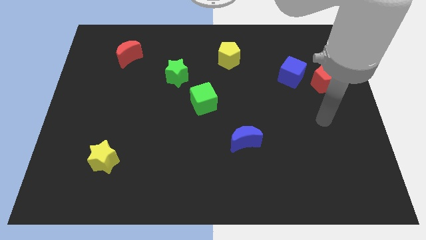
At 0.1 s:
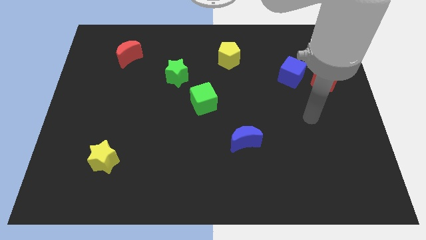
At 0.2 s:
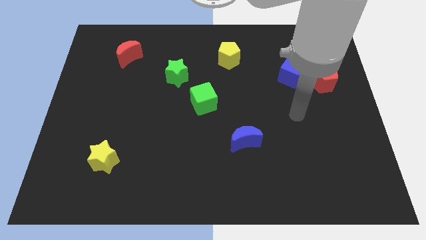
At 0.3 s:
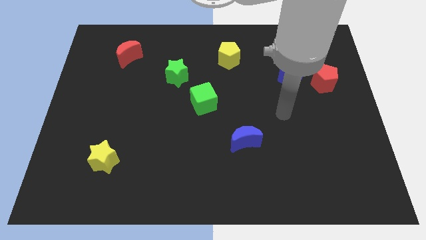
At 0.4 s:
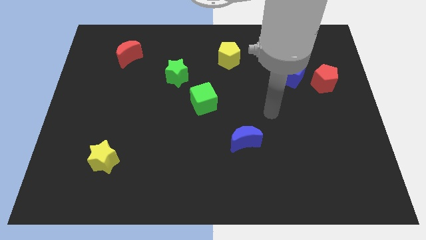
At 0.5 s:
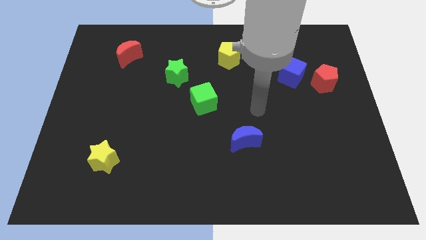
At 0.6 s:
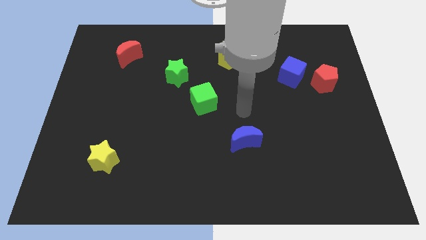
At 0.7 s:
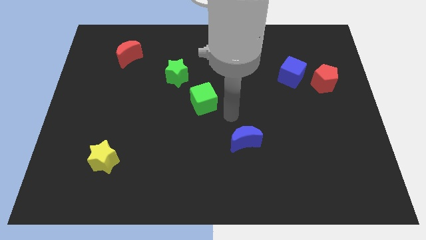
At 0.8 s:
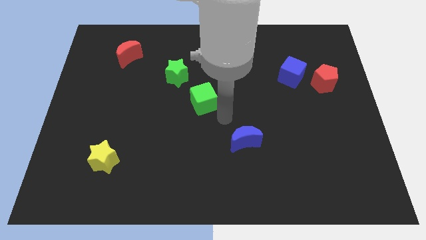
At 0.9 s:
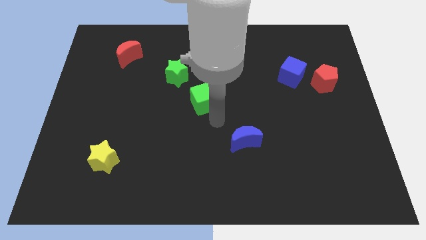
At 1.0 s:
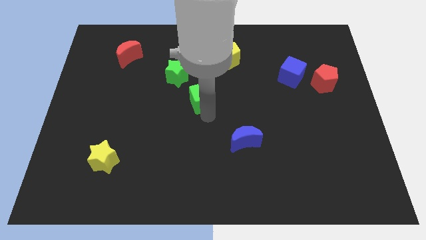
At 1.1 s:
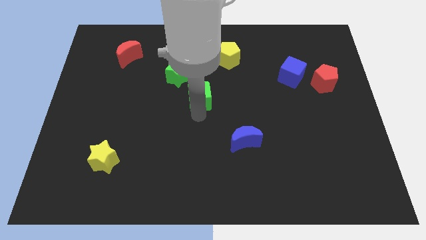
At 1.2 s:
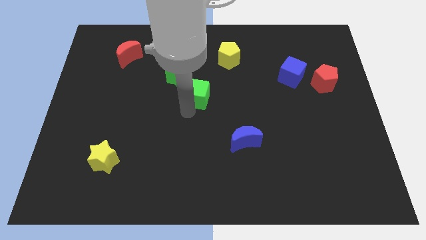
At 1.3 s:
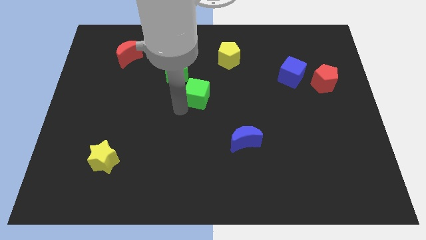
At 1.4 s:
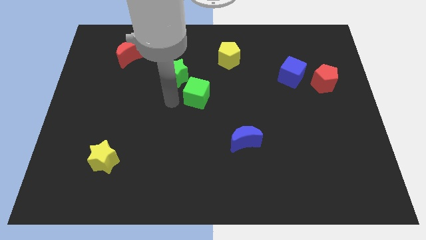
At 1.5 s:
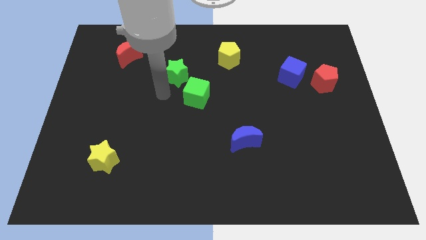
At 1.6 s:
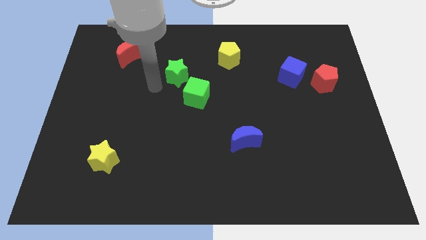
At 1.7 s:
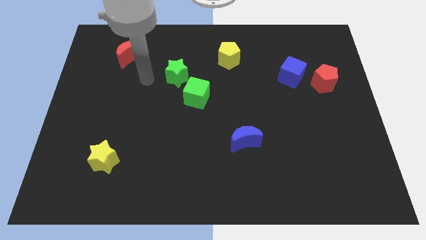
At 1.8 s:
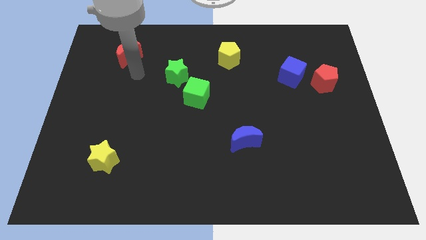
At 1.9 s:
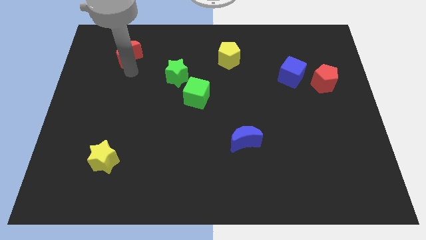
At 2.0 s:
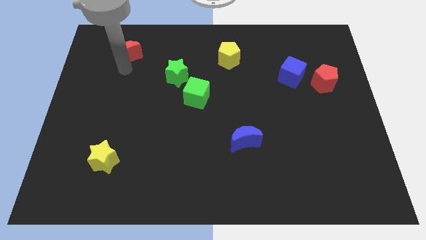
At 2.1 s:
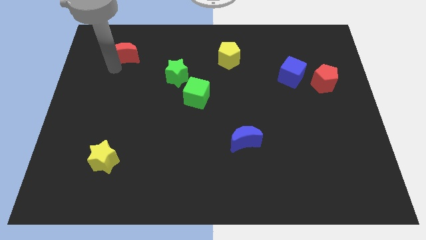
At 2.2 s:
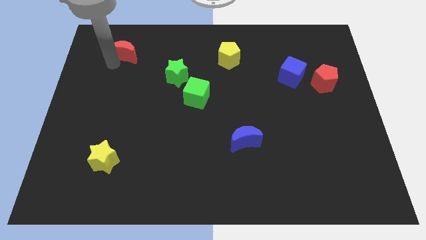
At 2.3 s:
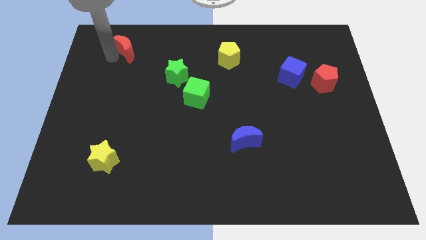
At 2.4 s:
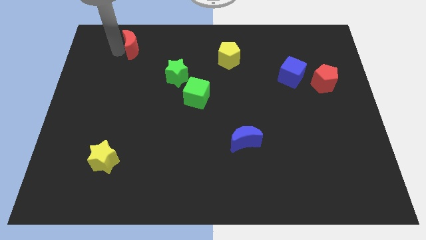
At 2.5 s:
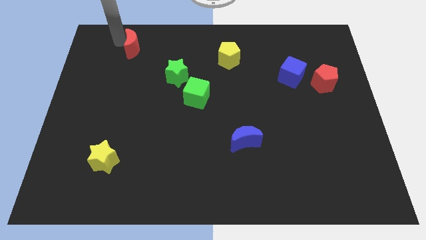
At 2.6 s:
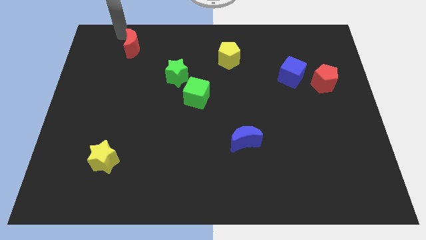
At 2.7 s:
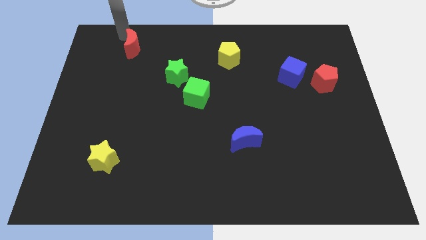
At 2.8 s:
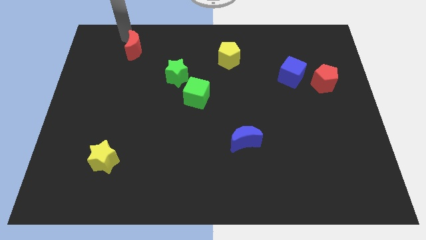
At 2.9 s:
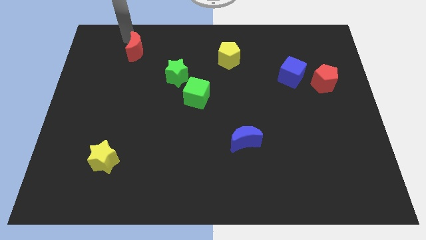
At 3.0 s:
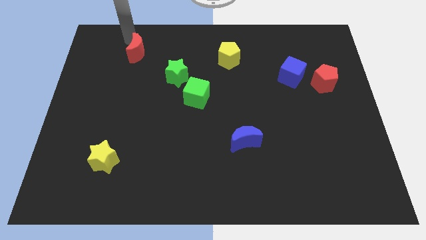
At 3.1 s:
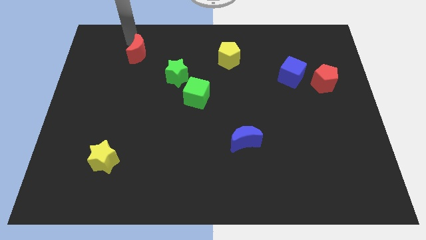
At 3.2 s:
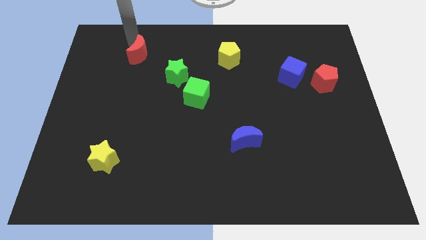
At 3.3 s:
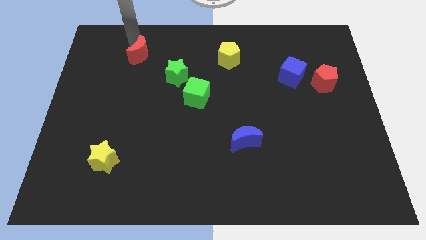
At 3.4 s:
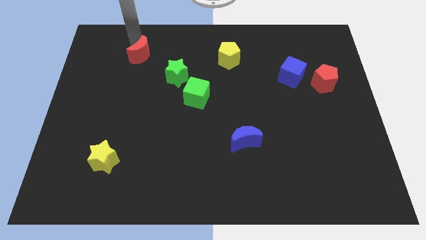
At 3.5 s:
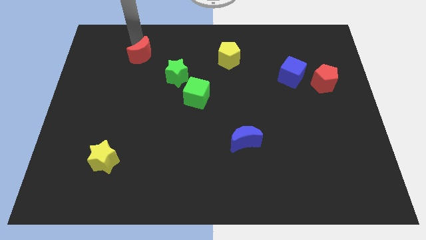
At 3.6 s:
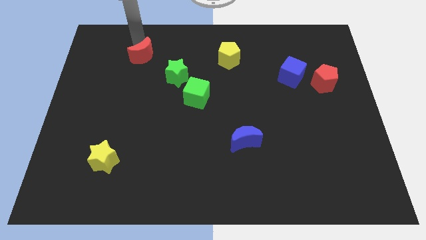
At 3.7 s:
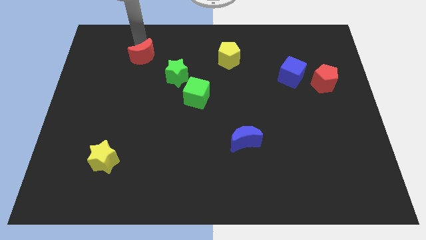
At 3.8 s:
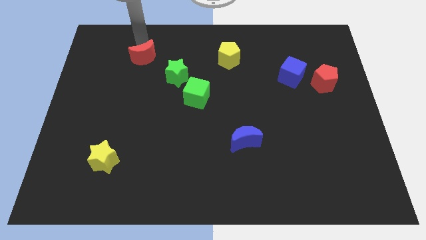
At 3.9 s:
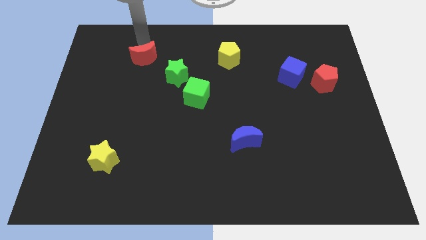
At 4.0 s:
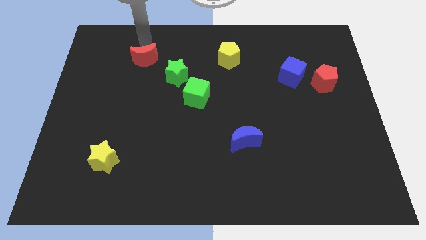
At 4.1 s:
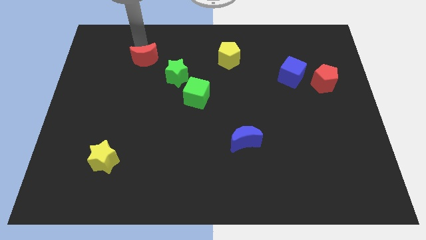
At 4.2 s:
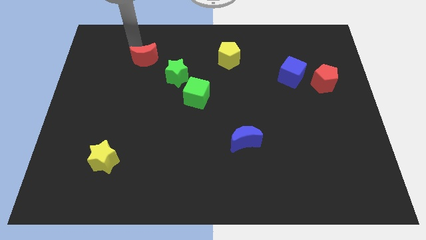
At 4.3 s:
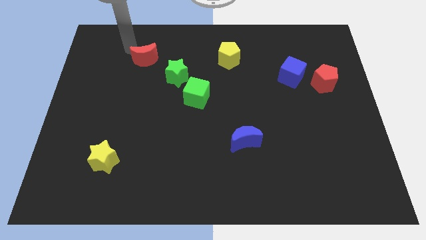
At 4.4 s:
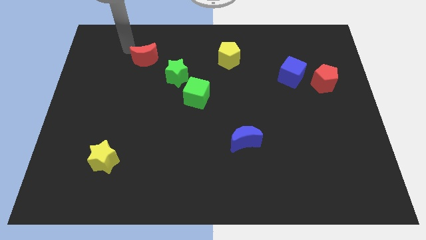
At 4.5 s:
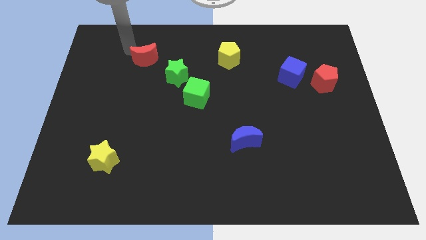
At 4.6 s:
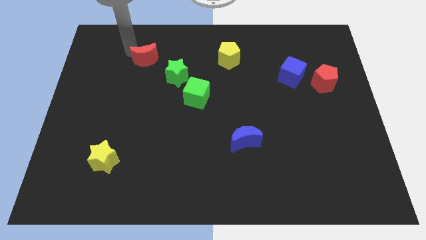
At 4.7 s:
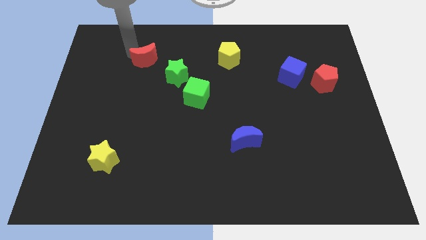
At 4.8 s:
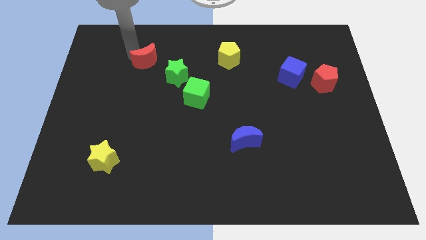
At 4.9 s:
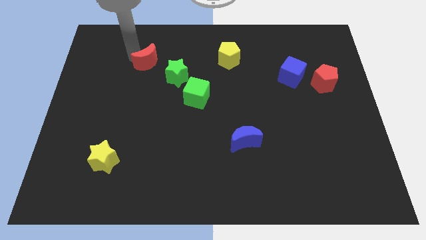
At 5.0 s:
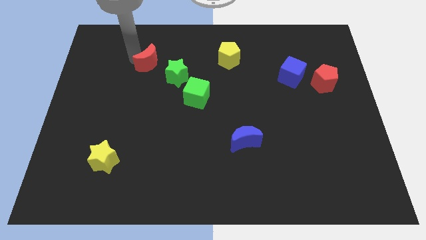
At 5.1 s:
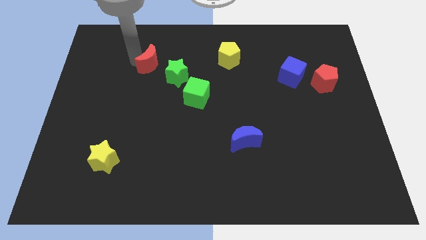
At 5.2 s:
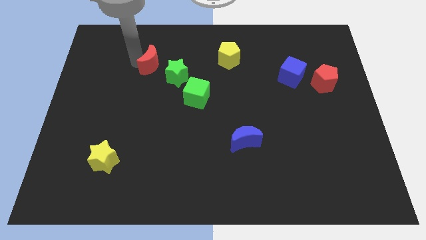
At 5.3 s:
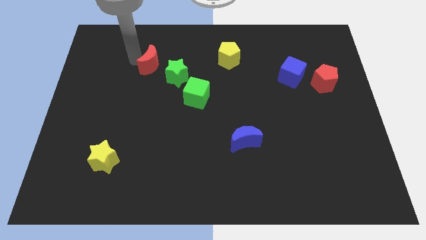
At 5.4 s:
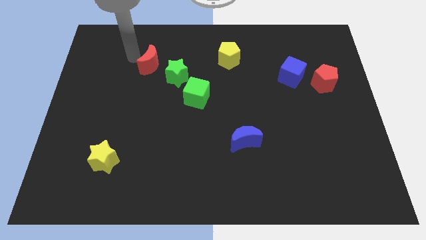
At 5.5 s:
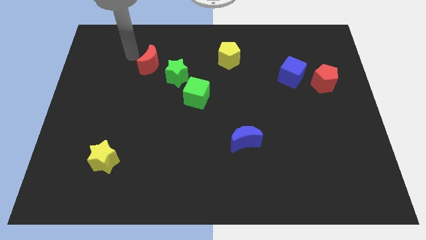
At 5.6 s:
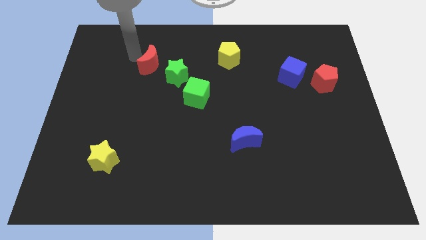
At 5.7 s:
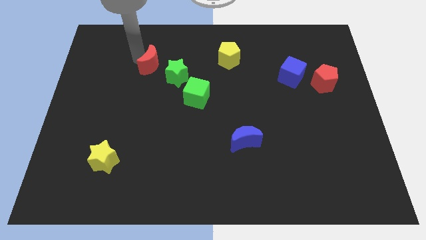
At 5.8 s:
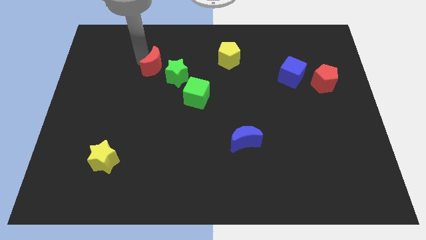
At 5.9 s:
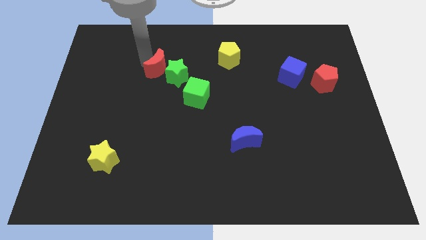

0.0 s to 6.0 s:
put the red moon close to the green star

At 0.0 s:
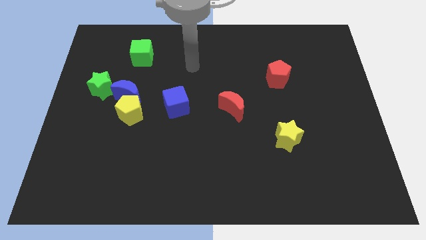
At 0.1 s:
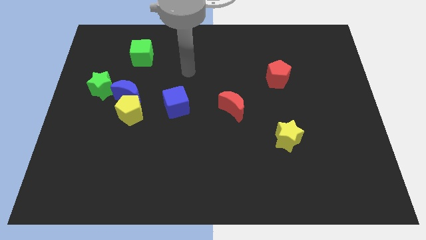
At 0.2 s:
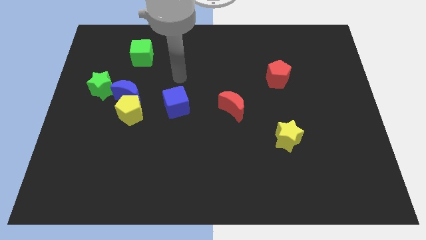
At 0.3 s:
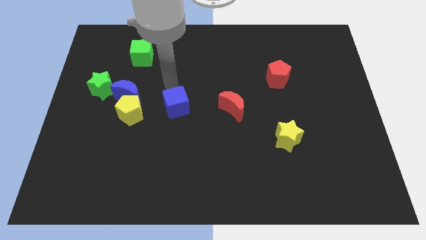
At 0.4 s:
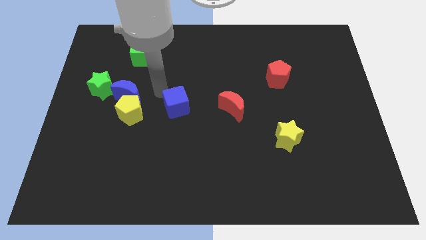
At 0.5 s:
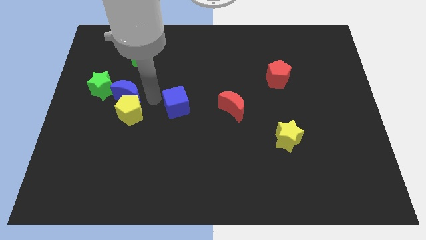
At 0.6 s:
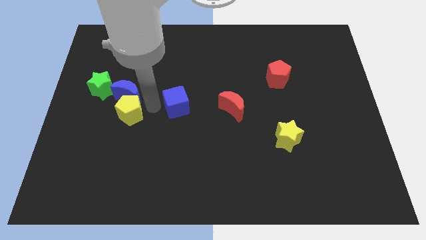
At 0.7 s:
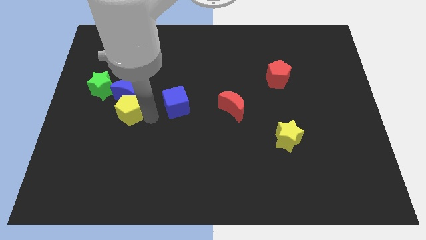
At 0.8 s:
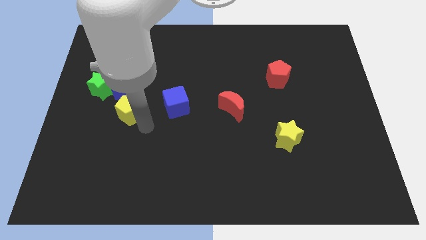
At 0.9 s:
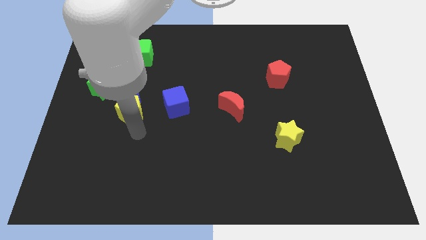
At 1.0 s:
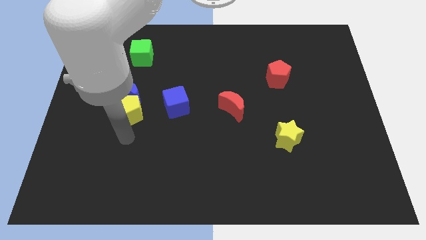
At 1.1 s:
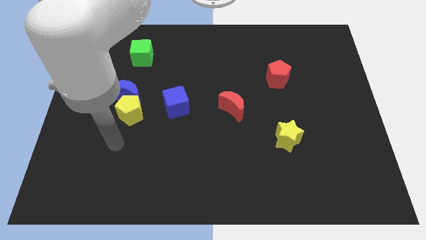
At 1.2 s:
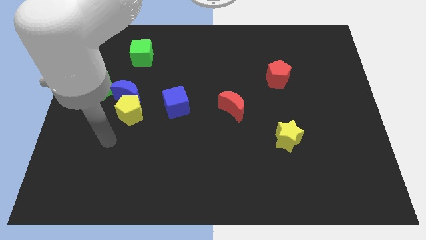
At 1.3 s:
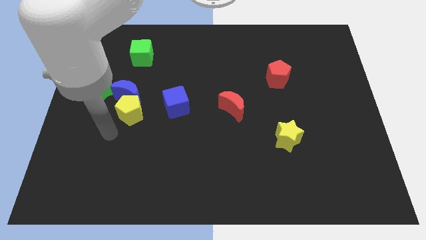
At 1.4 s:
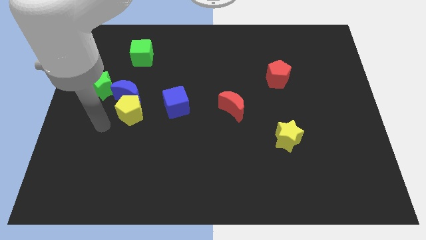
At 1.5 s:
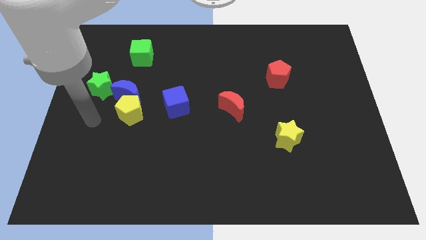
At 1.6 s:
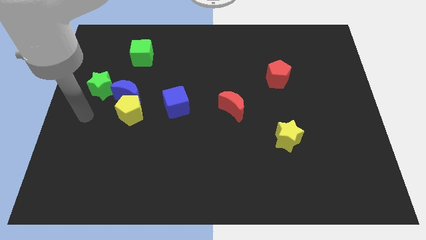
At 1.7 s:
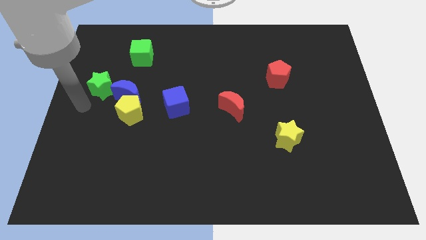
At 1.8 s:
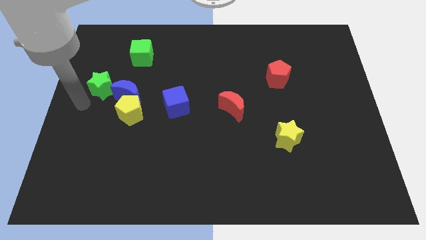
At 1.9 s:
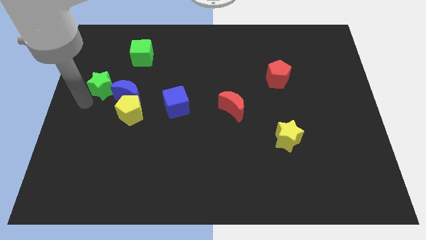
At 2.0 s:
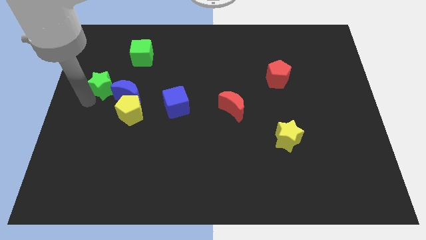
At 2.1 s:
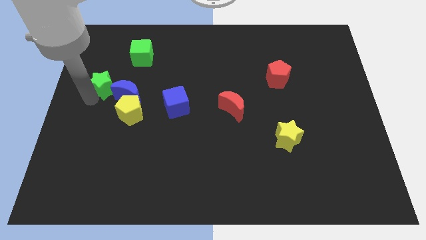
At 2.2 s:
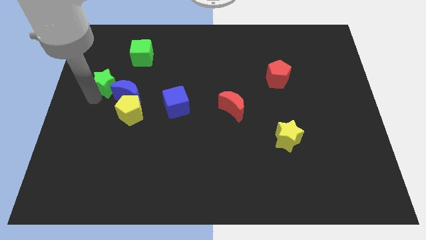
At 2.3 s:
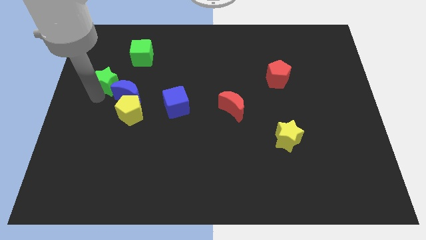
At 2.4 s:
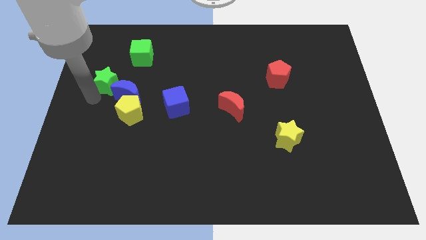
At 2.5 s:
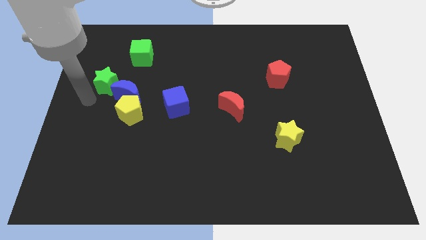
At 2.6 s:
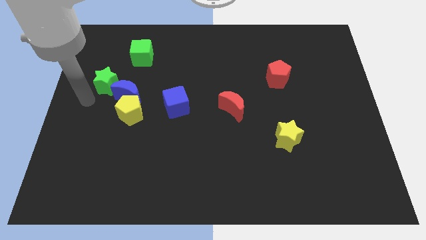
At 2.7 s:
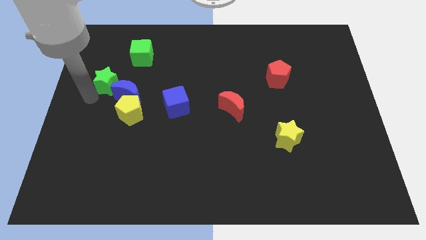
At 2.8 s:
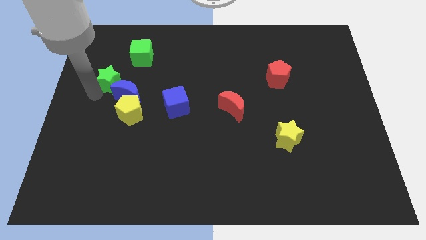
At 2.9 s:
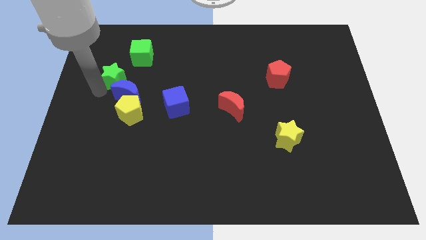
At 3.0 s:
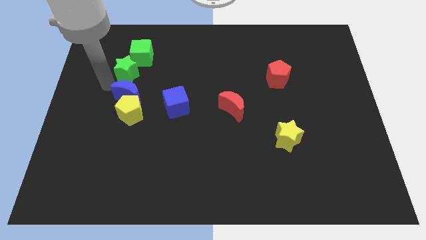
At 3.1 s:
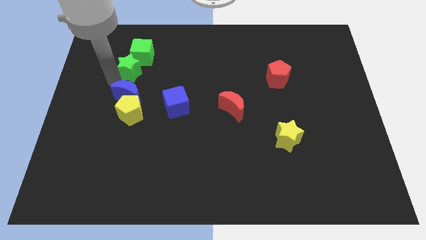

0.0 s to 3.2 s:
put the green star next to the green cube
